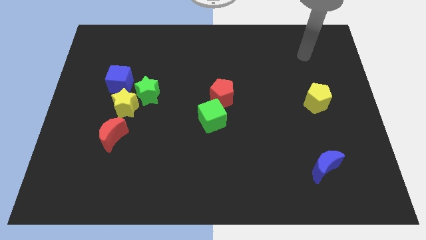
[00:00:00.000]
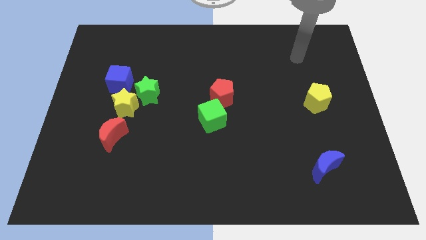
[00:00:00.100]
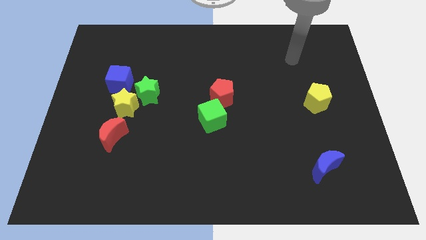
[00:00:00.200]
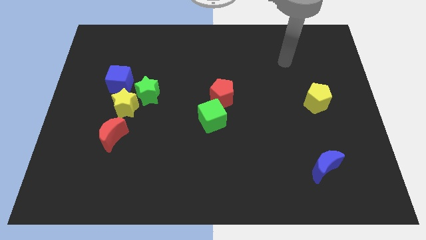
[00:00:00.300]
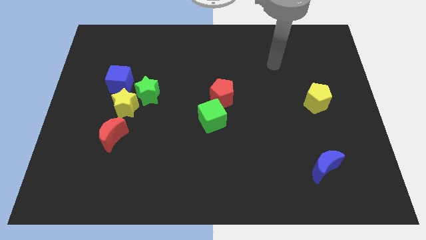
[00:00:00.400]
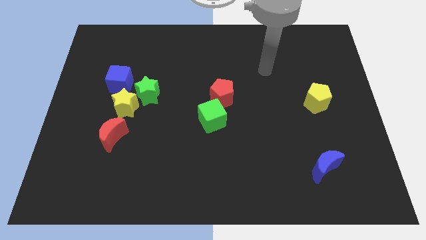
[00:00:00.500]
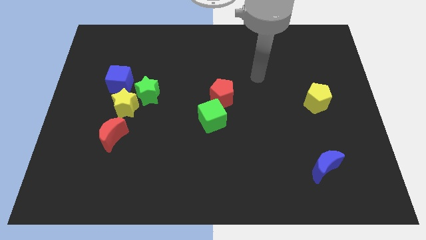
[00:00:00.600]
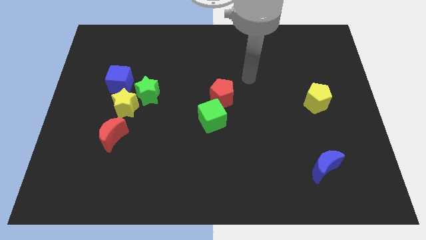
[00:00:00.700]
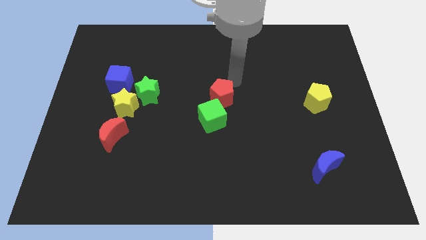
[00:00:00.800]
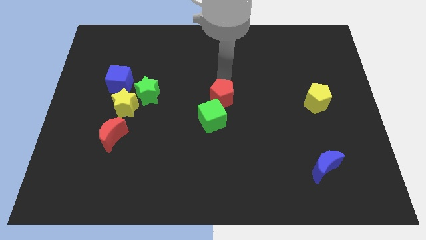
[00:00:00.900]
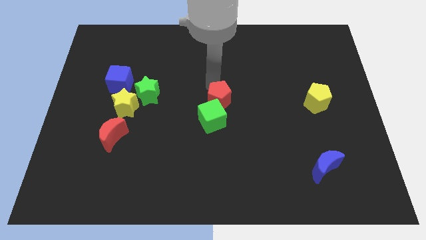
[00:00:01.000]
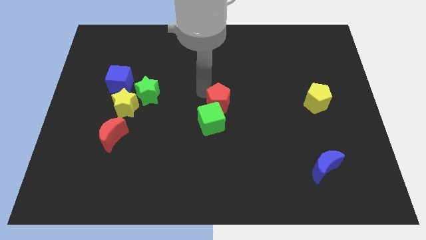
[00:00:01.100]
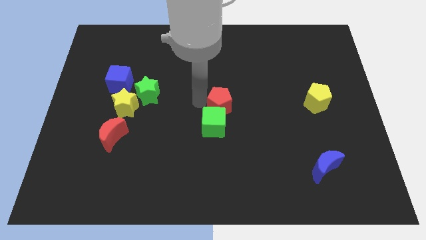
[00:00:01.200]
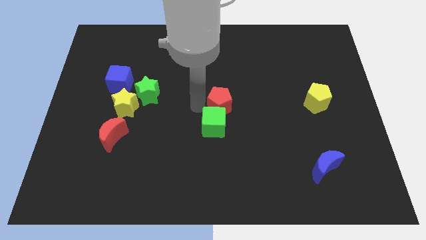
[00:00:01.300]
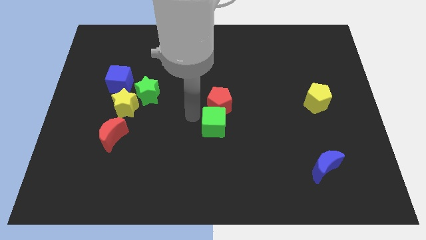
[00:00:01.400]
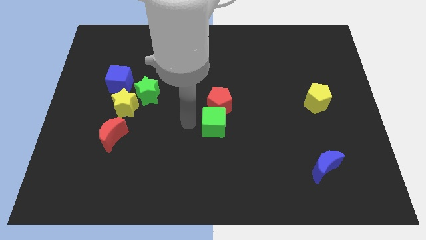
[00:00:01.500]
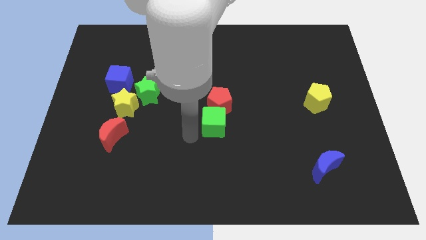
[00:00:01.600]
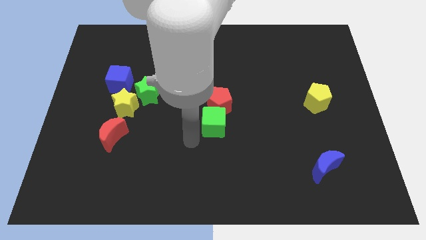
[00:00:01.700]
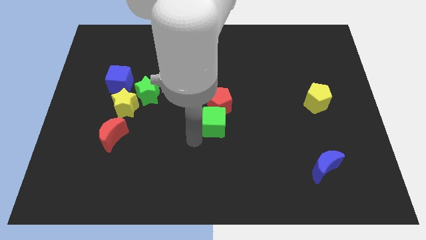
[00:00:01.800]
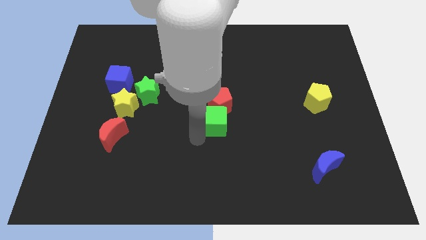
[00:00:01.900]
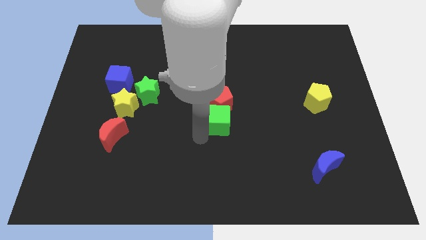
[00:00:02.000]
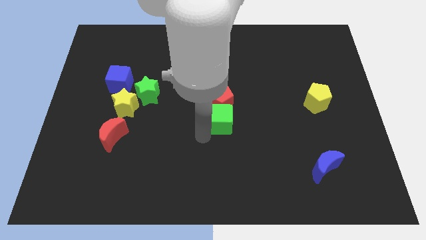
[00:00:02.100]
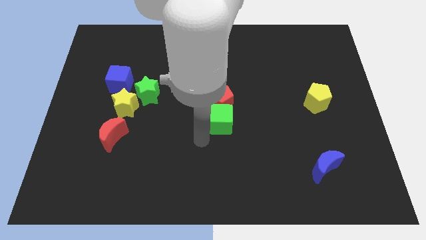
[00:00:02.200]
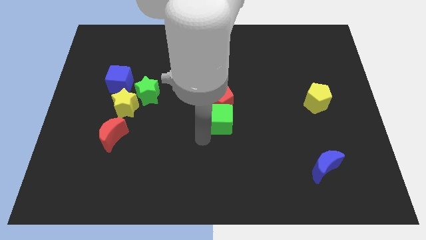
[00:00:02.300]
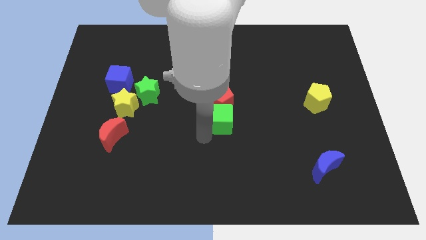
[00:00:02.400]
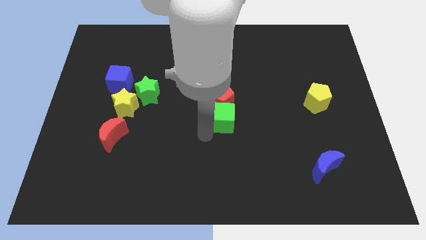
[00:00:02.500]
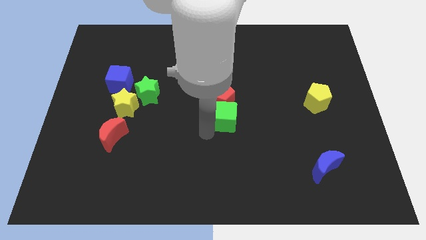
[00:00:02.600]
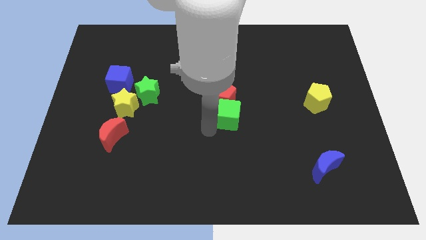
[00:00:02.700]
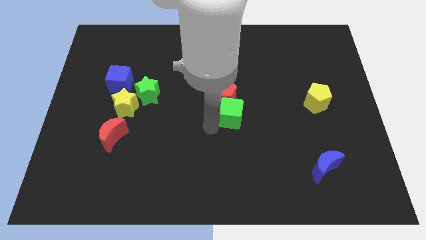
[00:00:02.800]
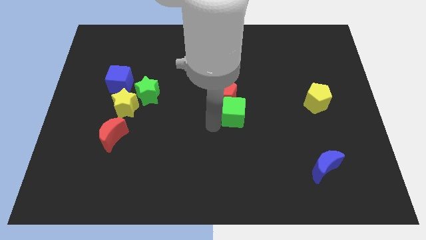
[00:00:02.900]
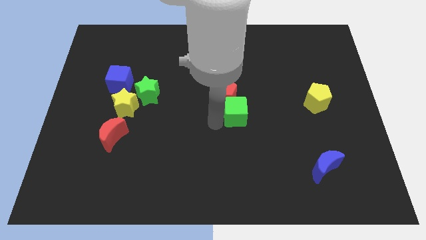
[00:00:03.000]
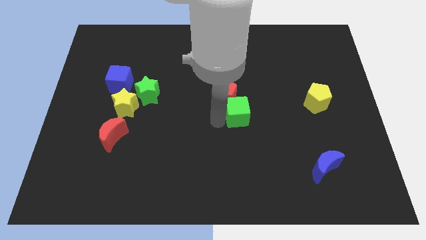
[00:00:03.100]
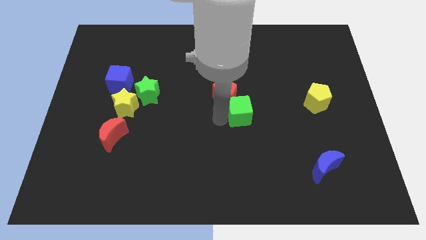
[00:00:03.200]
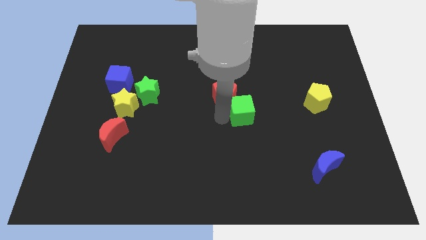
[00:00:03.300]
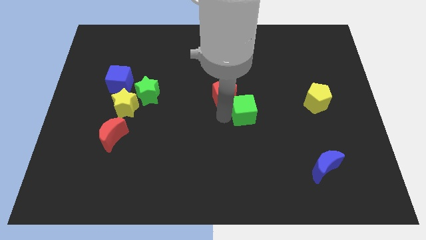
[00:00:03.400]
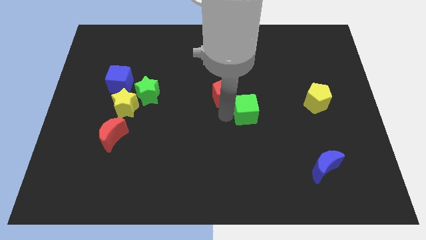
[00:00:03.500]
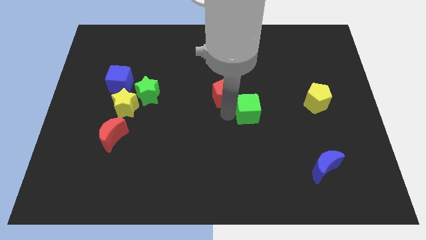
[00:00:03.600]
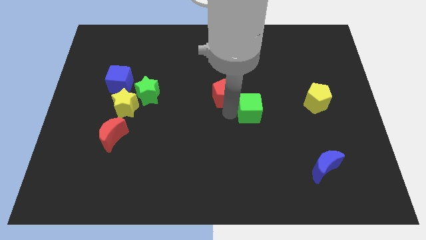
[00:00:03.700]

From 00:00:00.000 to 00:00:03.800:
slide the green cube a little upwards and right

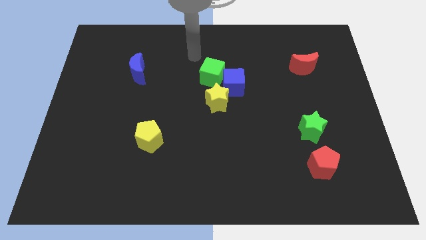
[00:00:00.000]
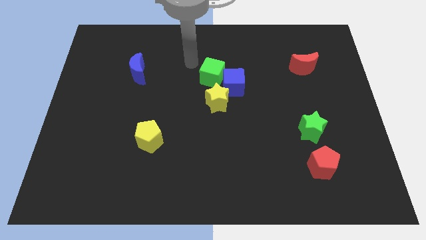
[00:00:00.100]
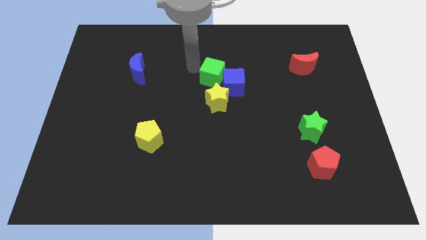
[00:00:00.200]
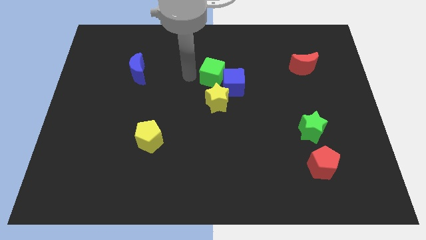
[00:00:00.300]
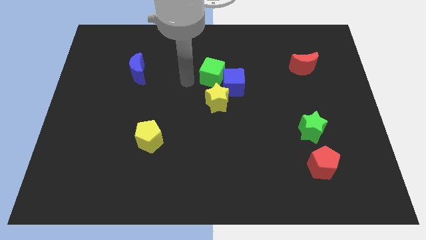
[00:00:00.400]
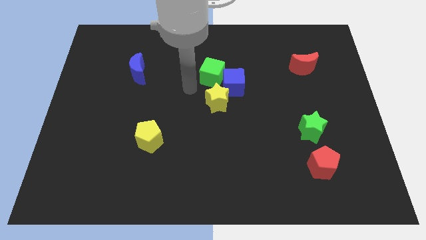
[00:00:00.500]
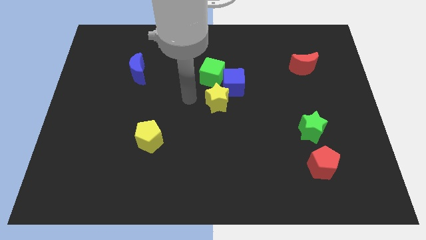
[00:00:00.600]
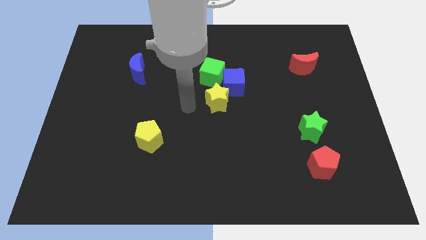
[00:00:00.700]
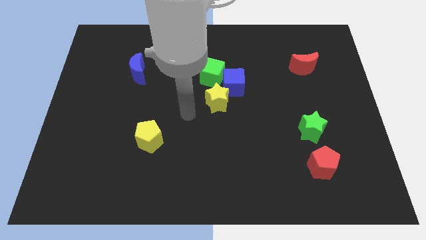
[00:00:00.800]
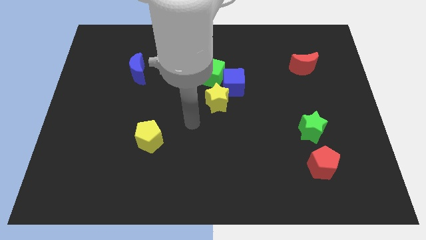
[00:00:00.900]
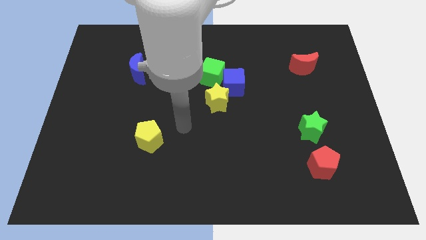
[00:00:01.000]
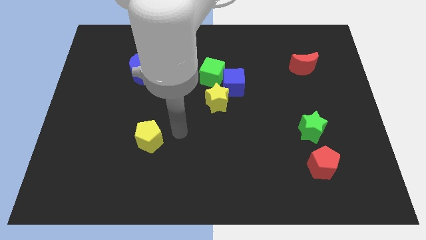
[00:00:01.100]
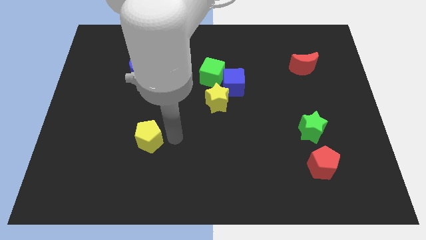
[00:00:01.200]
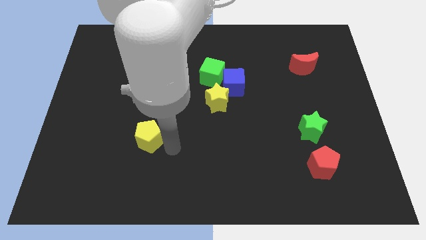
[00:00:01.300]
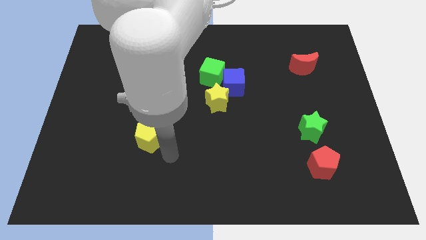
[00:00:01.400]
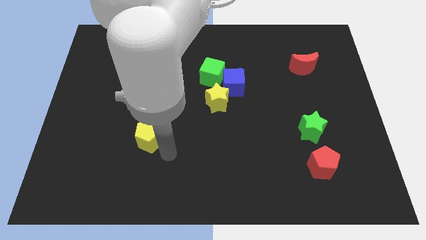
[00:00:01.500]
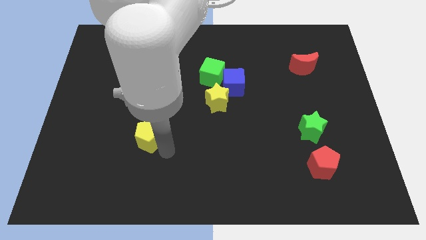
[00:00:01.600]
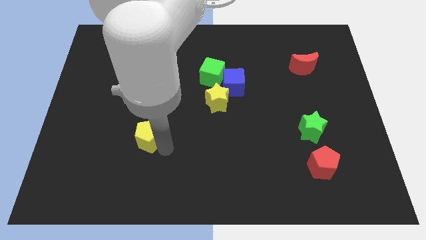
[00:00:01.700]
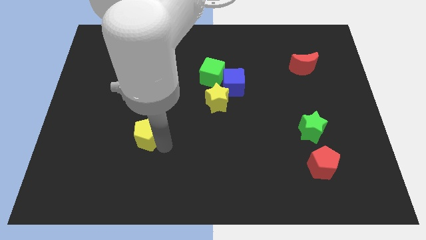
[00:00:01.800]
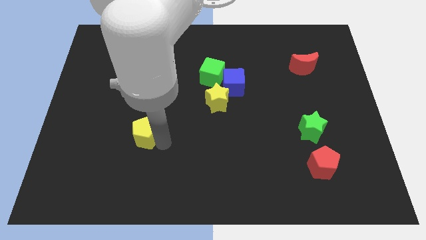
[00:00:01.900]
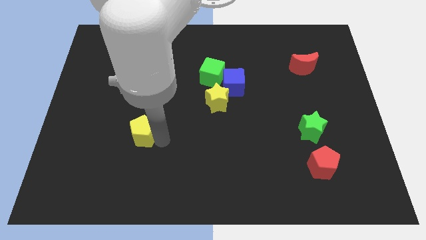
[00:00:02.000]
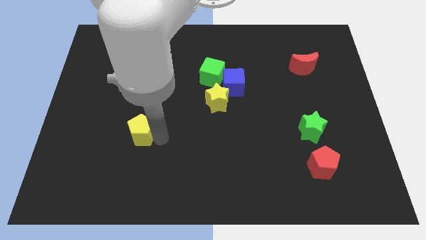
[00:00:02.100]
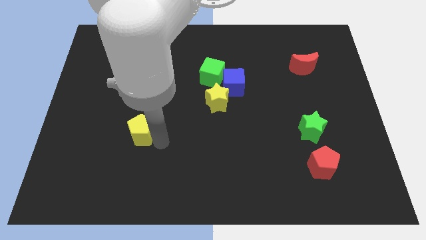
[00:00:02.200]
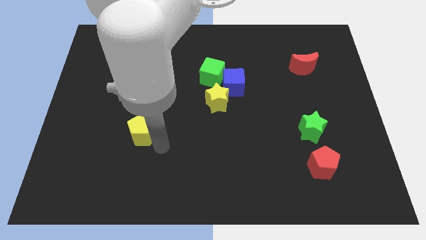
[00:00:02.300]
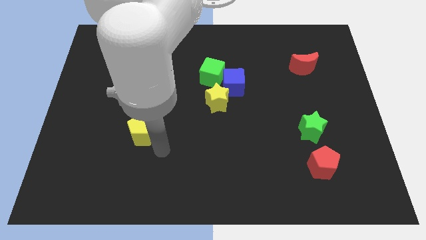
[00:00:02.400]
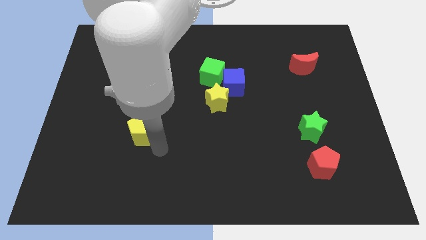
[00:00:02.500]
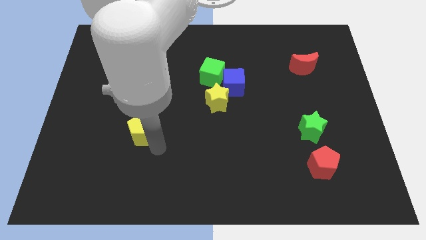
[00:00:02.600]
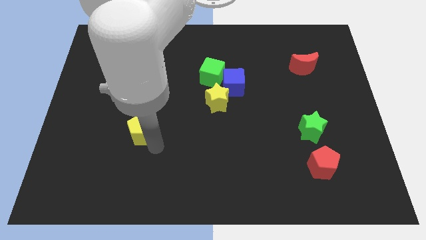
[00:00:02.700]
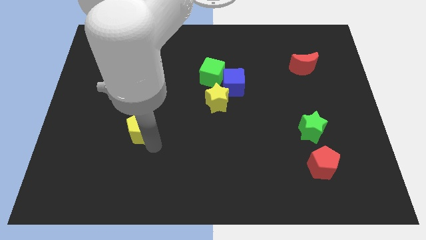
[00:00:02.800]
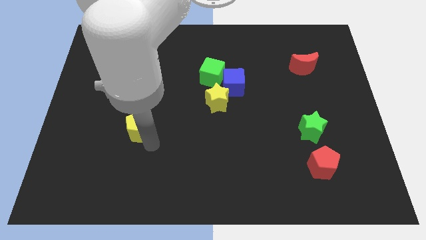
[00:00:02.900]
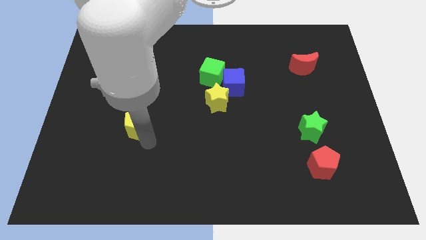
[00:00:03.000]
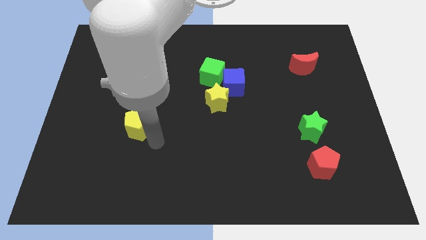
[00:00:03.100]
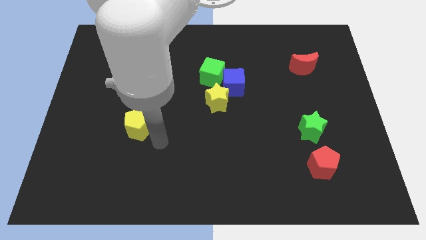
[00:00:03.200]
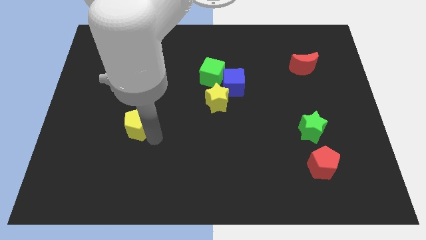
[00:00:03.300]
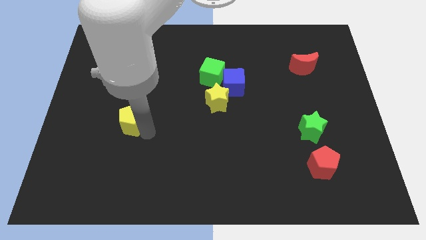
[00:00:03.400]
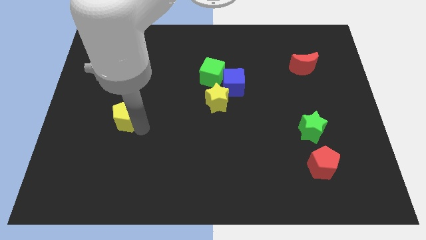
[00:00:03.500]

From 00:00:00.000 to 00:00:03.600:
slightly move the yellow pentagon upwards and then left

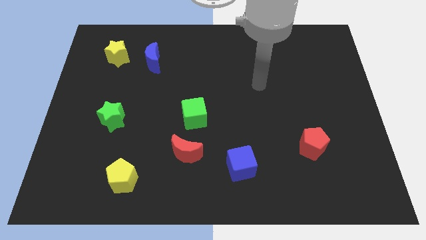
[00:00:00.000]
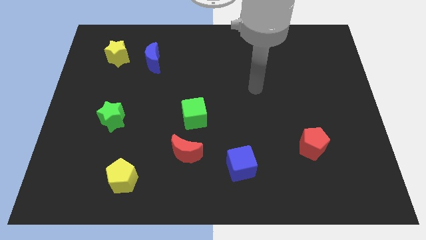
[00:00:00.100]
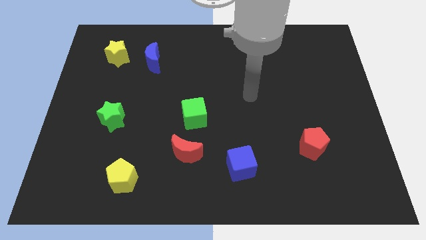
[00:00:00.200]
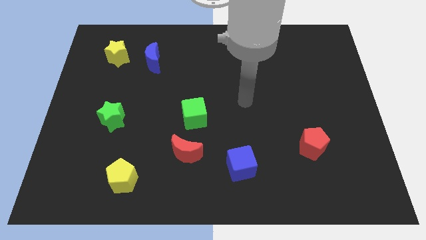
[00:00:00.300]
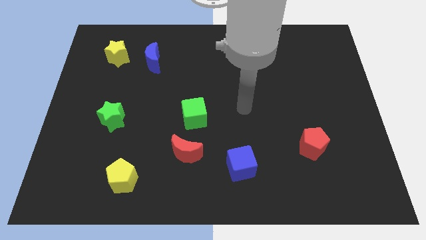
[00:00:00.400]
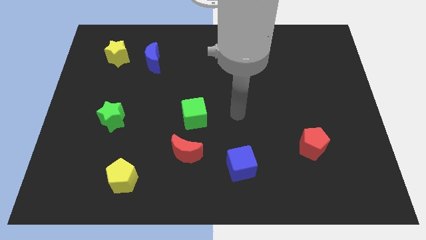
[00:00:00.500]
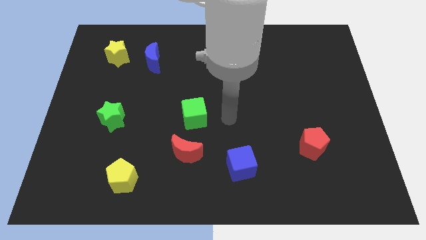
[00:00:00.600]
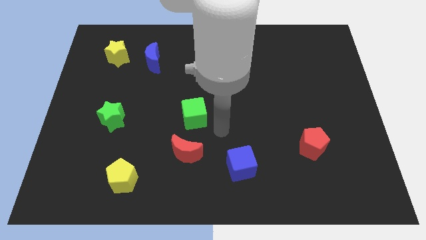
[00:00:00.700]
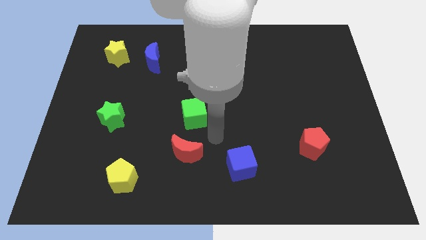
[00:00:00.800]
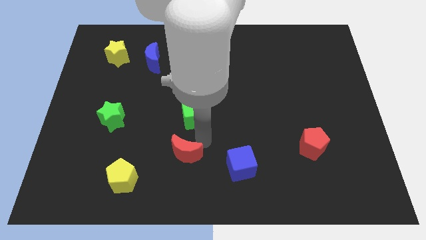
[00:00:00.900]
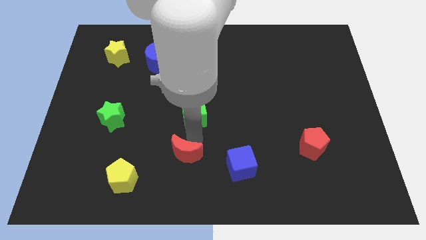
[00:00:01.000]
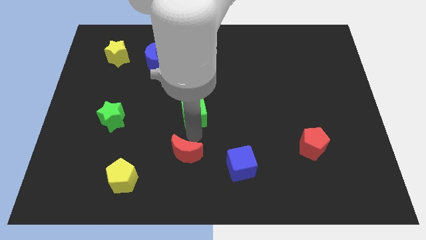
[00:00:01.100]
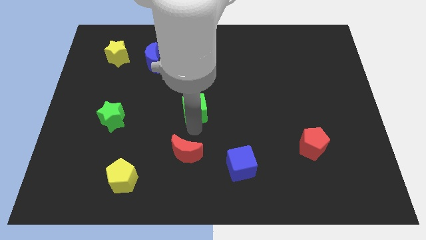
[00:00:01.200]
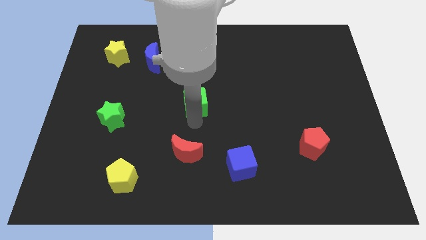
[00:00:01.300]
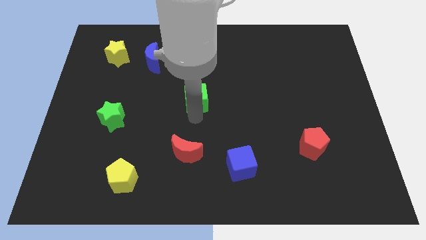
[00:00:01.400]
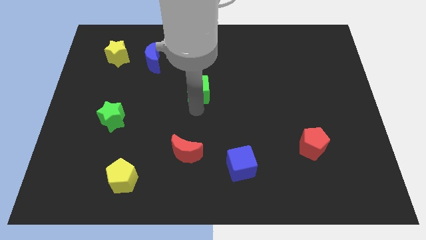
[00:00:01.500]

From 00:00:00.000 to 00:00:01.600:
slightly move the green cube upwards
